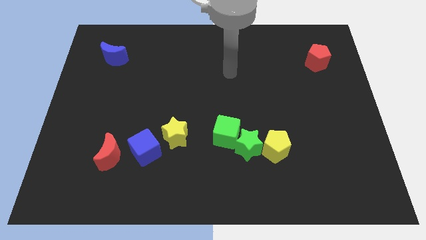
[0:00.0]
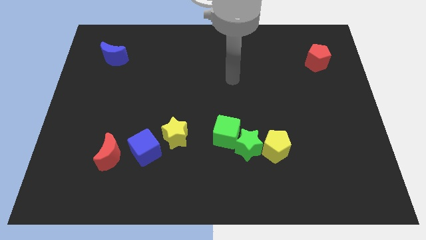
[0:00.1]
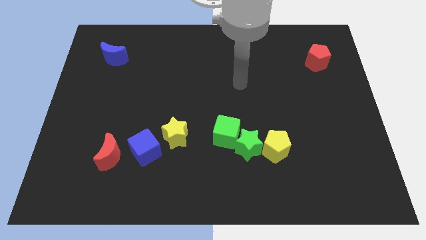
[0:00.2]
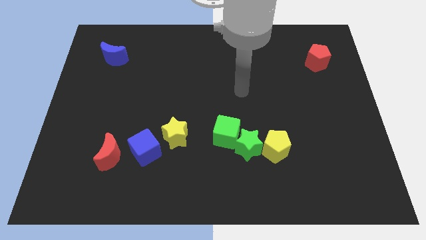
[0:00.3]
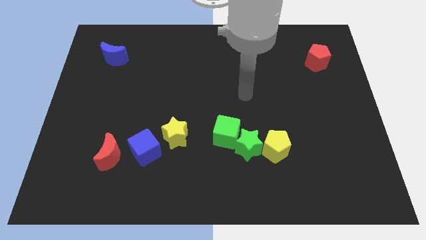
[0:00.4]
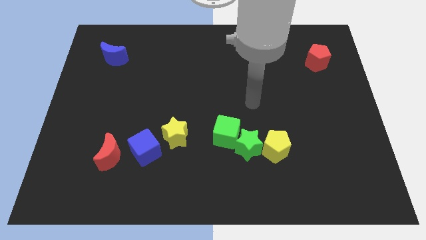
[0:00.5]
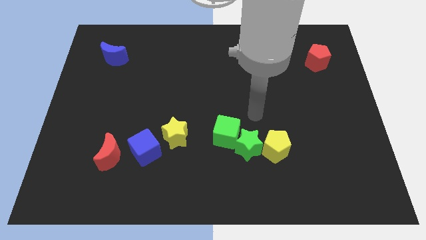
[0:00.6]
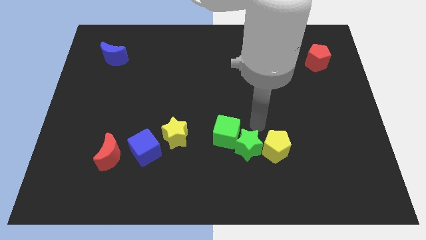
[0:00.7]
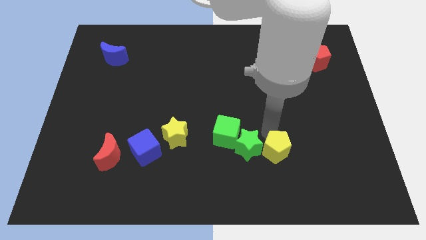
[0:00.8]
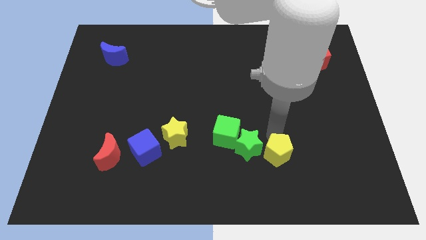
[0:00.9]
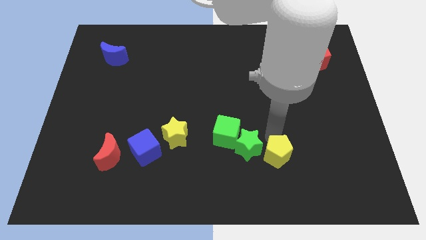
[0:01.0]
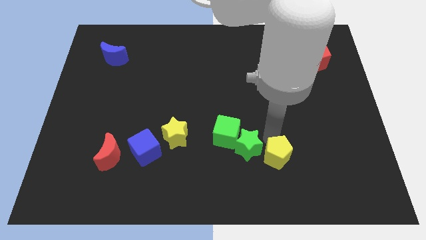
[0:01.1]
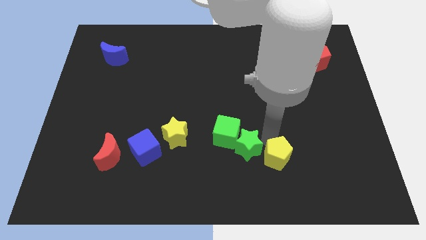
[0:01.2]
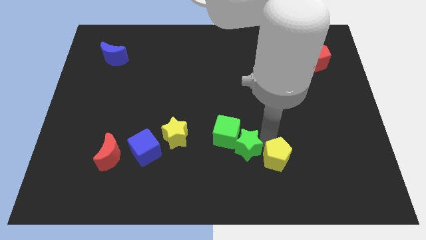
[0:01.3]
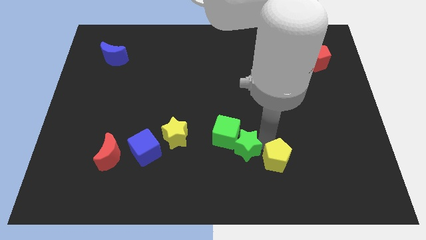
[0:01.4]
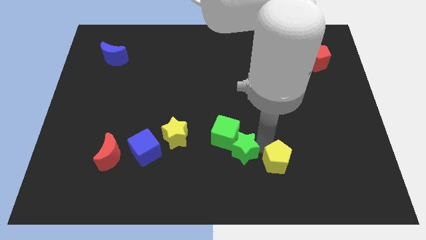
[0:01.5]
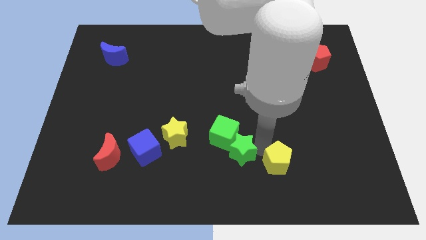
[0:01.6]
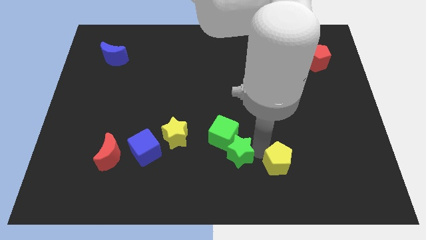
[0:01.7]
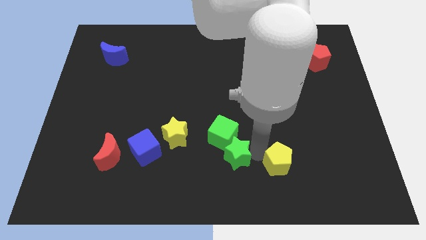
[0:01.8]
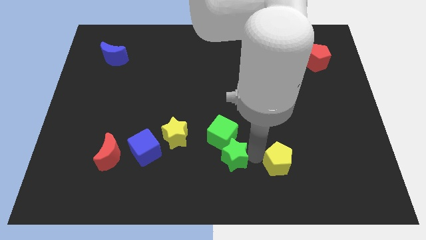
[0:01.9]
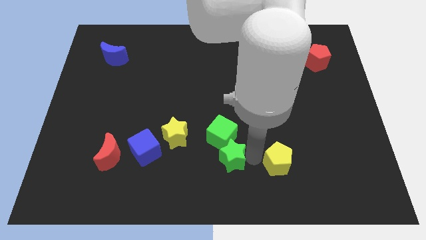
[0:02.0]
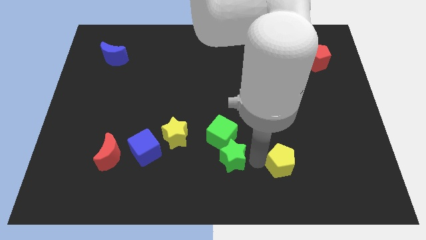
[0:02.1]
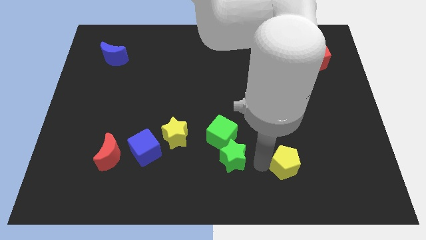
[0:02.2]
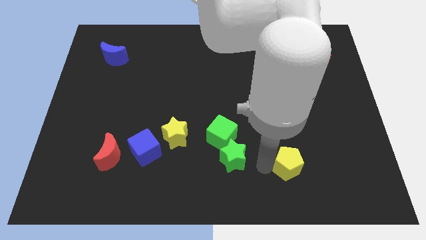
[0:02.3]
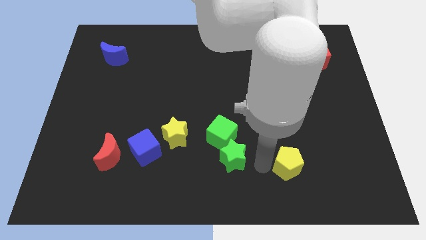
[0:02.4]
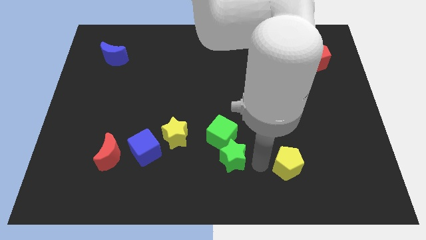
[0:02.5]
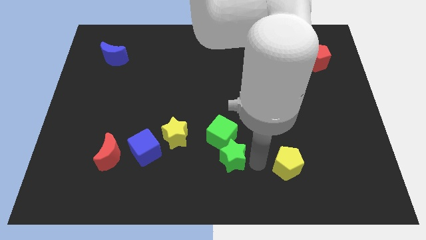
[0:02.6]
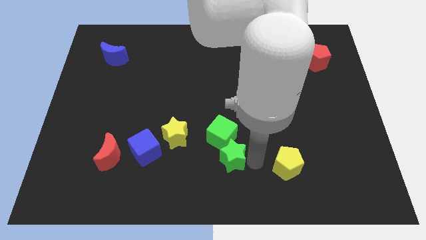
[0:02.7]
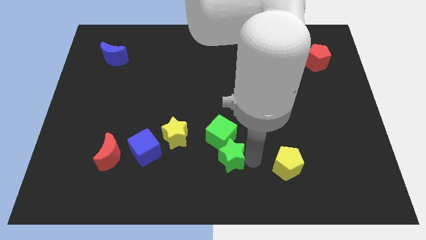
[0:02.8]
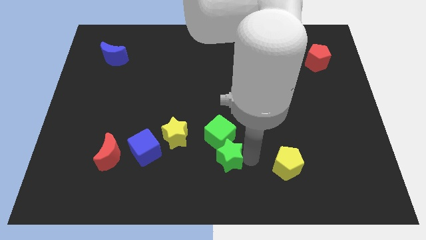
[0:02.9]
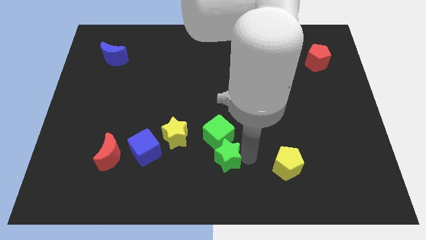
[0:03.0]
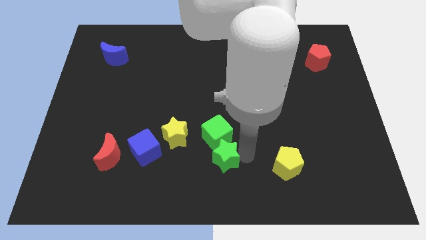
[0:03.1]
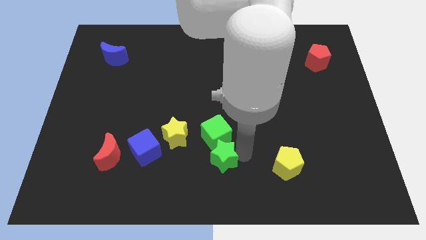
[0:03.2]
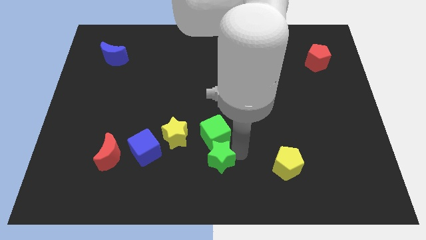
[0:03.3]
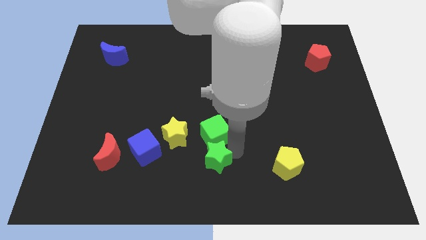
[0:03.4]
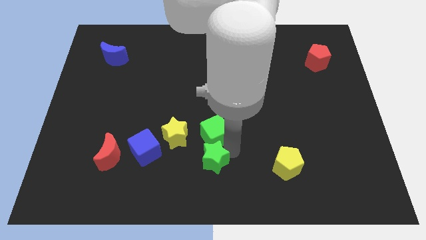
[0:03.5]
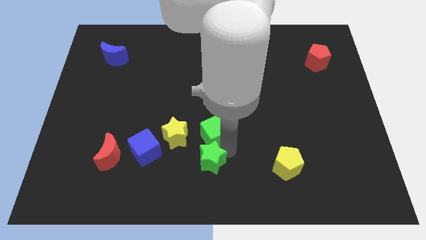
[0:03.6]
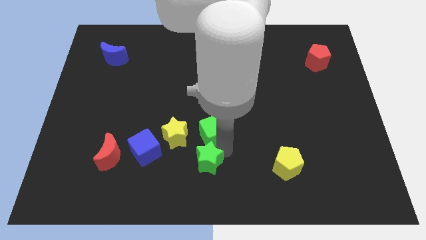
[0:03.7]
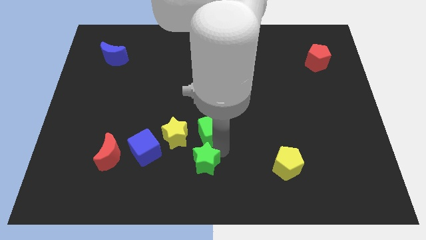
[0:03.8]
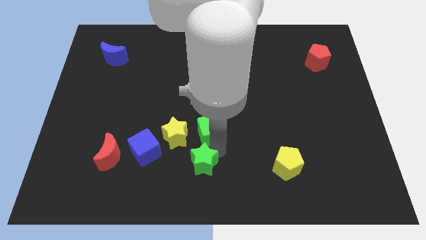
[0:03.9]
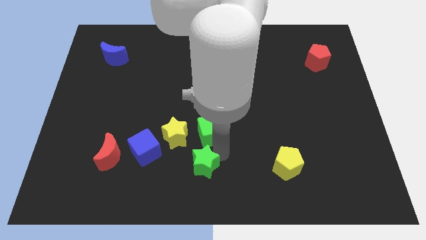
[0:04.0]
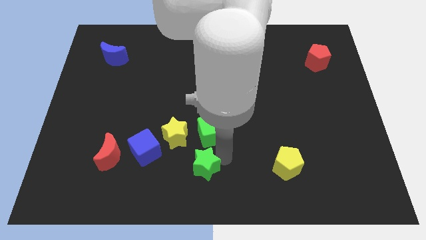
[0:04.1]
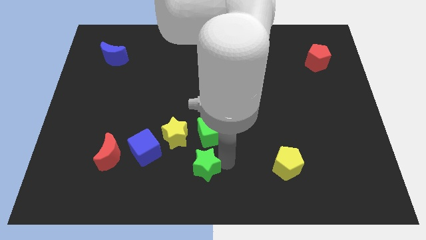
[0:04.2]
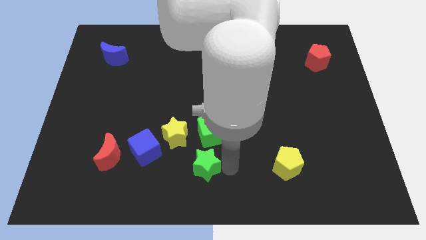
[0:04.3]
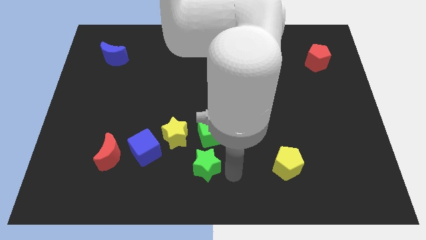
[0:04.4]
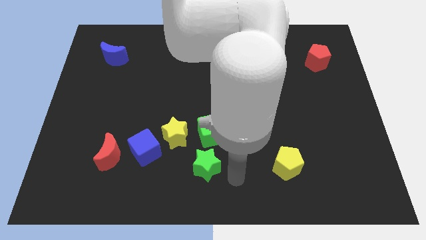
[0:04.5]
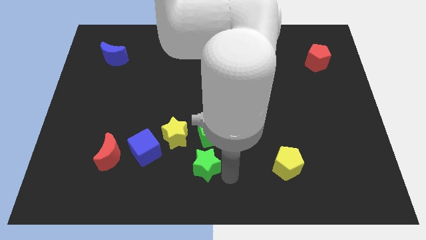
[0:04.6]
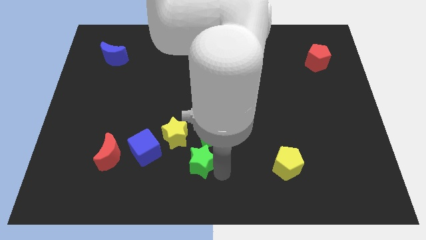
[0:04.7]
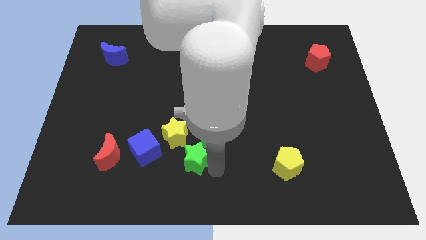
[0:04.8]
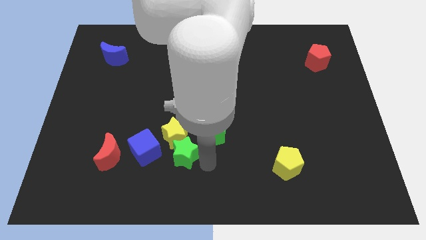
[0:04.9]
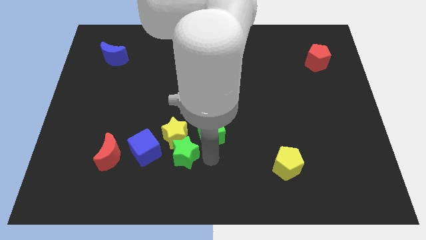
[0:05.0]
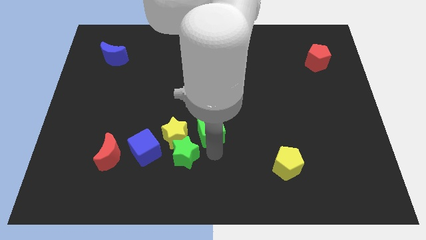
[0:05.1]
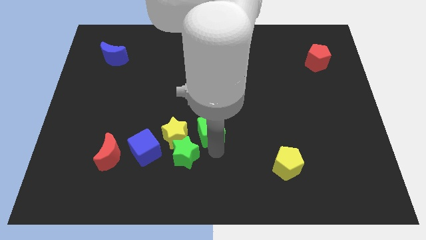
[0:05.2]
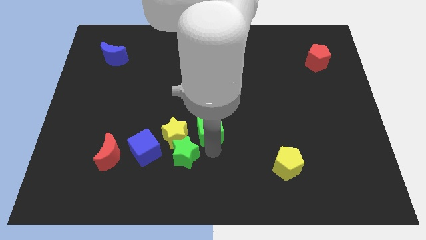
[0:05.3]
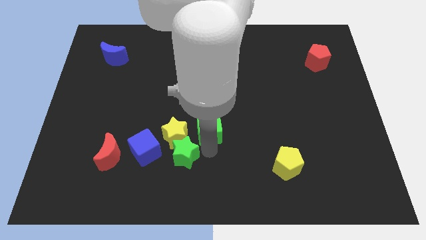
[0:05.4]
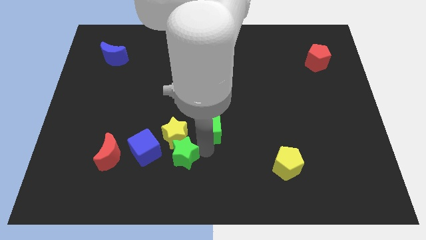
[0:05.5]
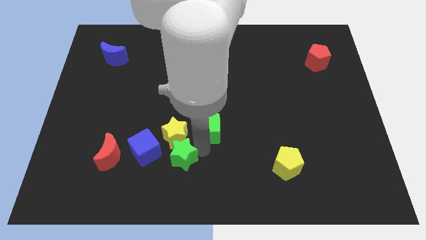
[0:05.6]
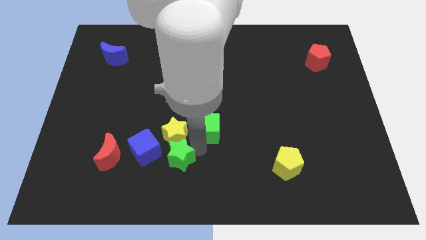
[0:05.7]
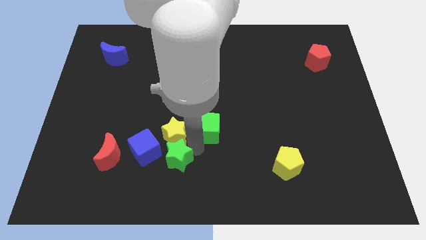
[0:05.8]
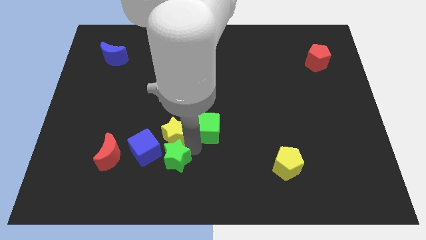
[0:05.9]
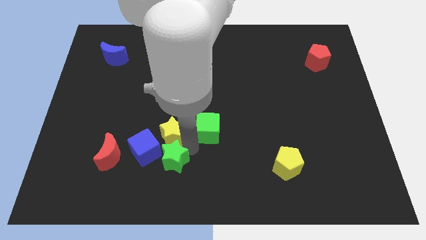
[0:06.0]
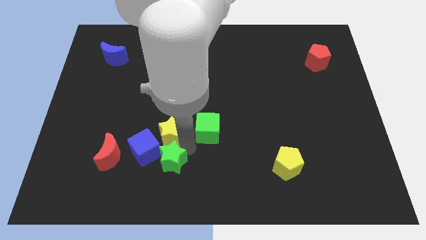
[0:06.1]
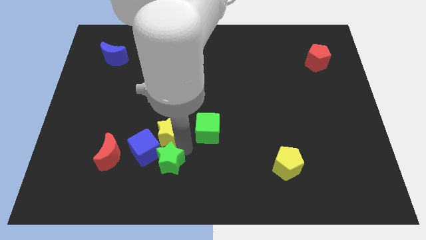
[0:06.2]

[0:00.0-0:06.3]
push the green star next to the blue cube

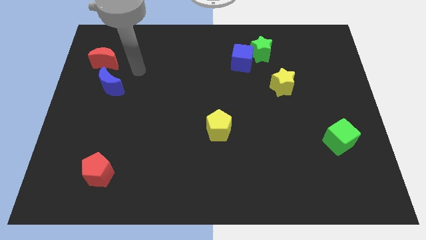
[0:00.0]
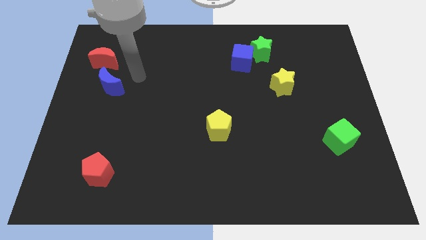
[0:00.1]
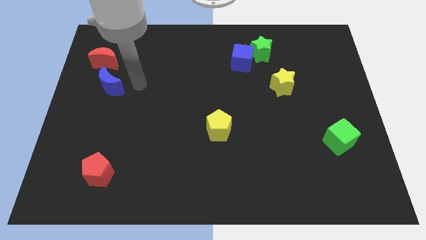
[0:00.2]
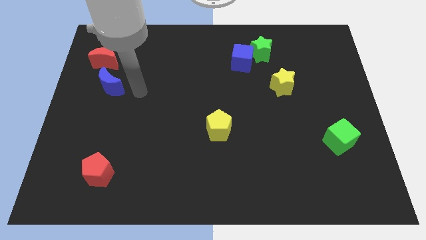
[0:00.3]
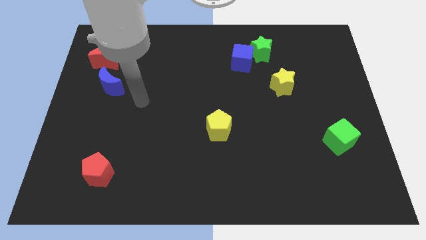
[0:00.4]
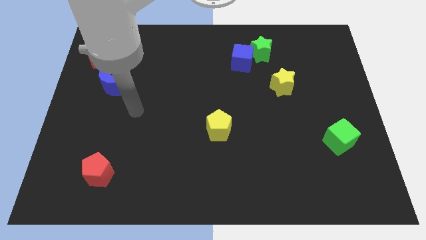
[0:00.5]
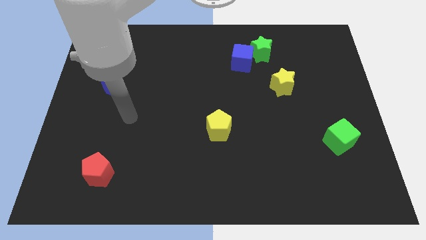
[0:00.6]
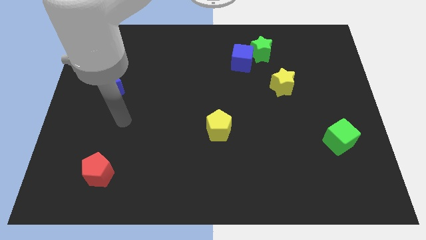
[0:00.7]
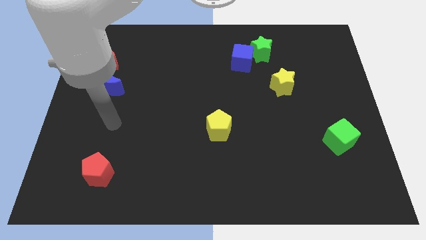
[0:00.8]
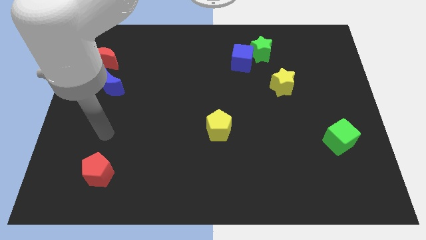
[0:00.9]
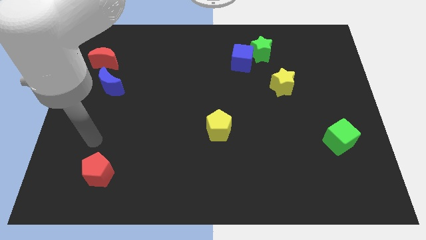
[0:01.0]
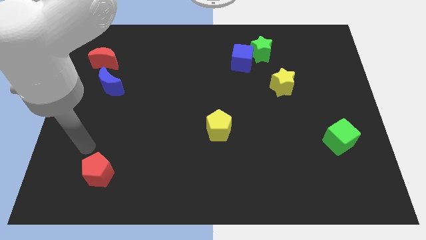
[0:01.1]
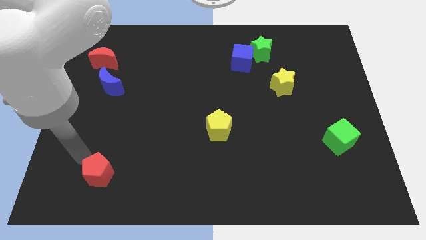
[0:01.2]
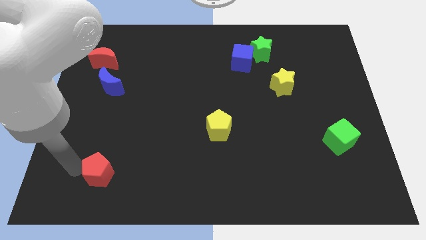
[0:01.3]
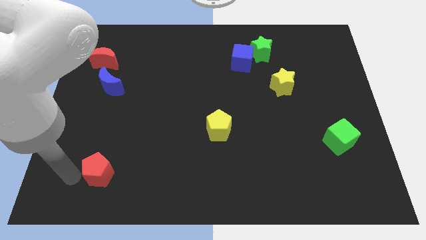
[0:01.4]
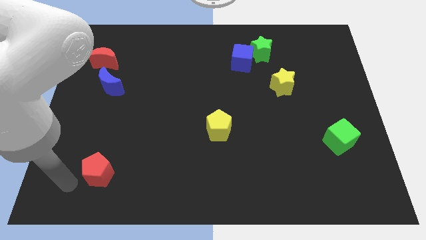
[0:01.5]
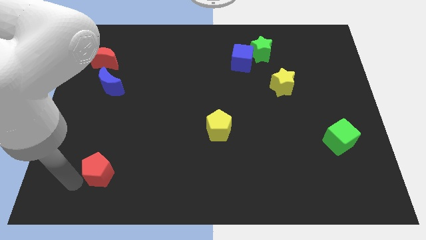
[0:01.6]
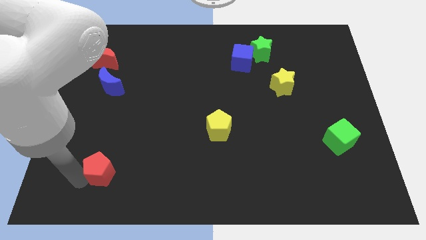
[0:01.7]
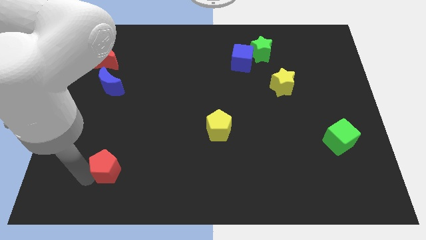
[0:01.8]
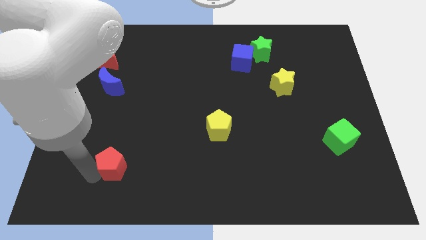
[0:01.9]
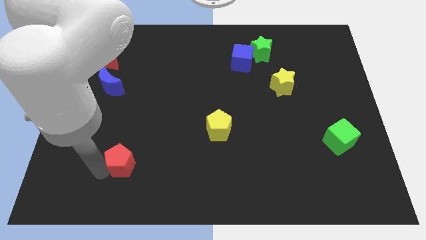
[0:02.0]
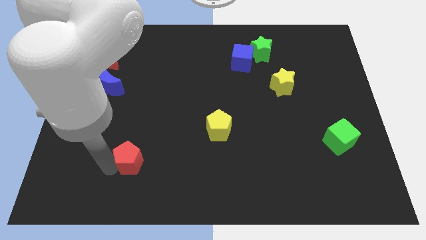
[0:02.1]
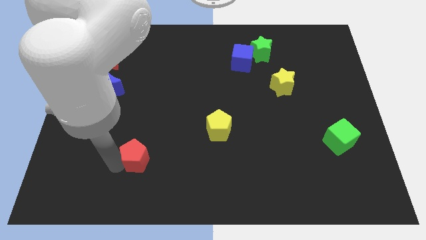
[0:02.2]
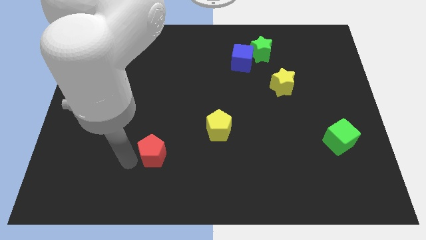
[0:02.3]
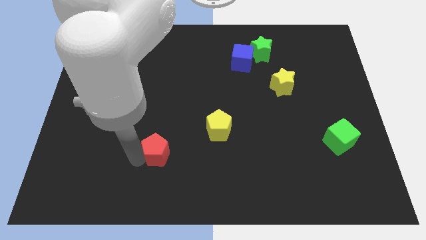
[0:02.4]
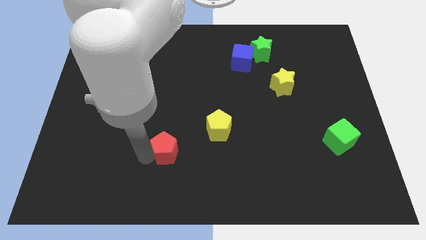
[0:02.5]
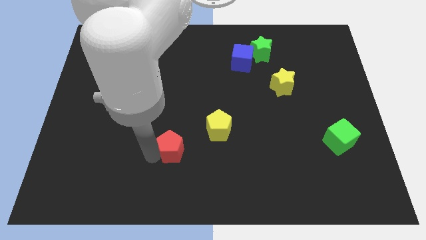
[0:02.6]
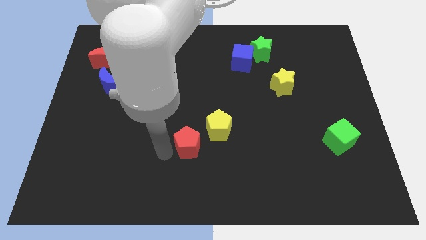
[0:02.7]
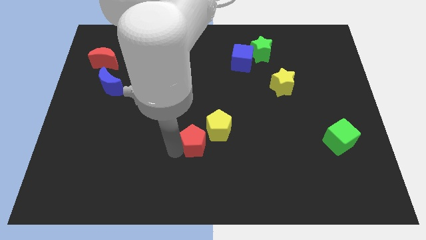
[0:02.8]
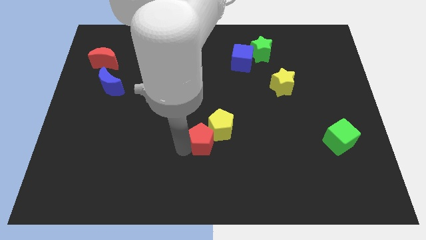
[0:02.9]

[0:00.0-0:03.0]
slide the red pentagon towards the yellow pentagon
